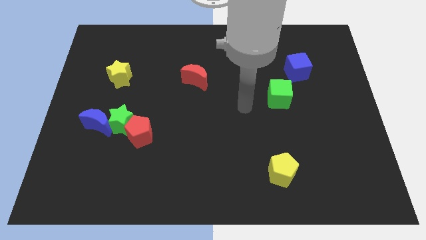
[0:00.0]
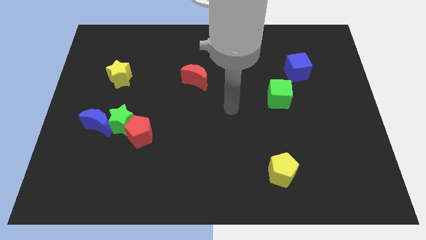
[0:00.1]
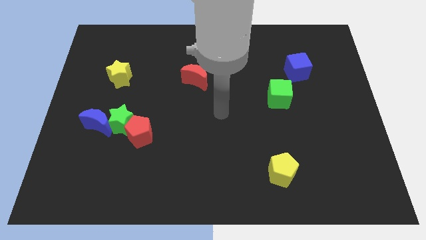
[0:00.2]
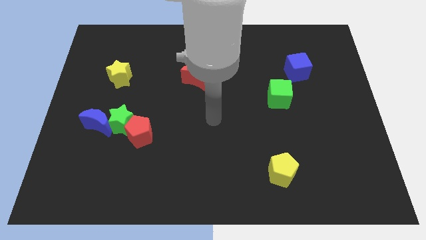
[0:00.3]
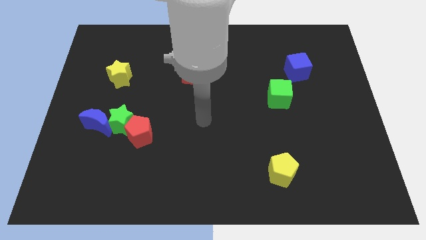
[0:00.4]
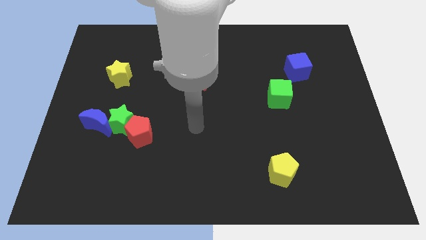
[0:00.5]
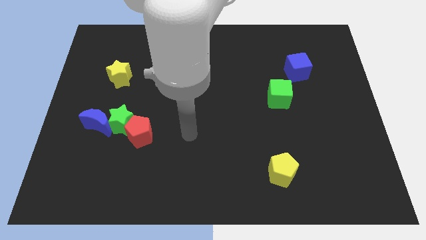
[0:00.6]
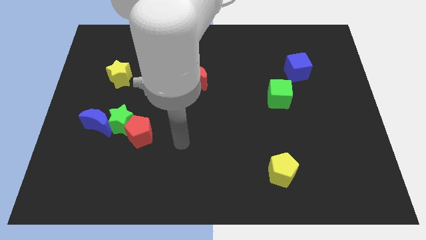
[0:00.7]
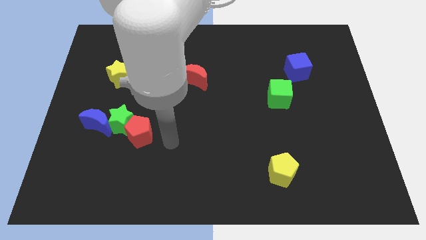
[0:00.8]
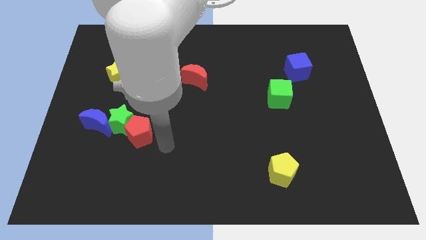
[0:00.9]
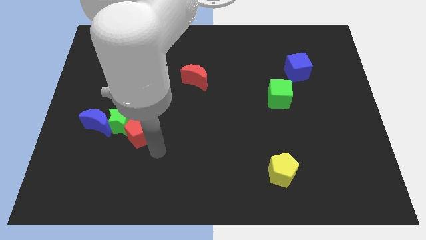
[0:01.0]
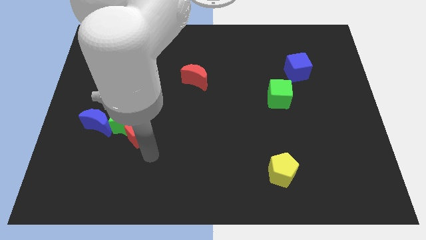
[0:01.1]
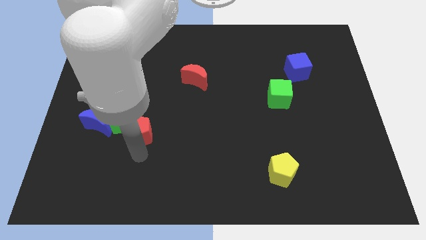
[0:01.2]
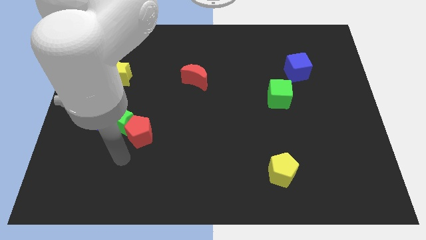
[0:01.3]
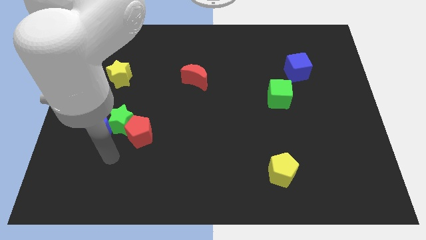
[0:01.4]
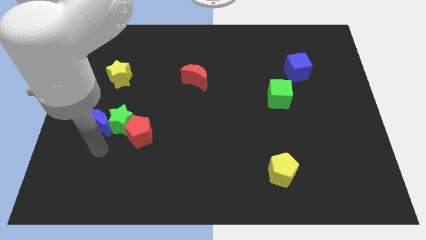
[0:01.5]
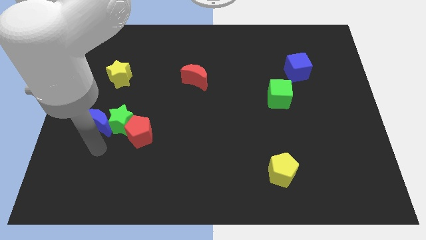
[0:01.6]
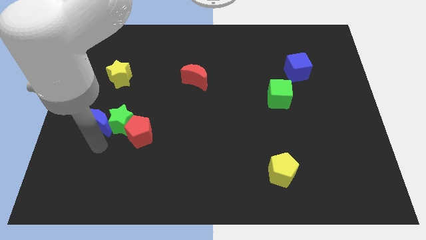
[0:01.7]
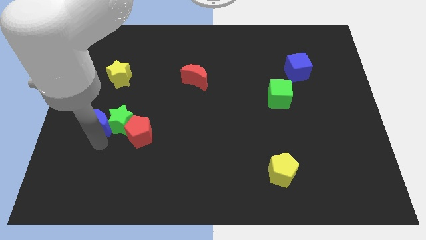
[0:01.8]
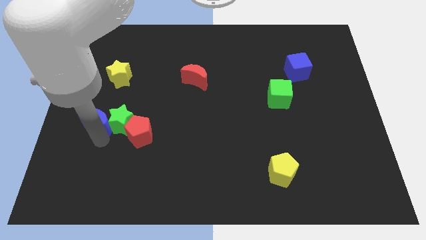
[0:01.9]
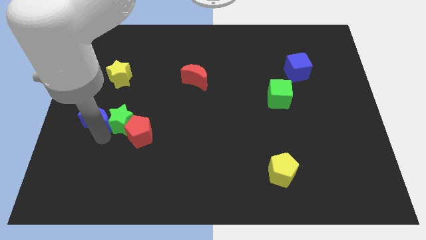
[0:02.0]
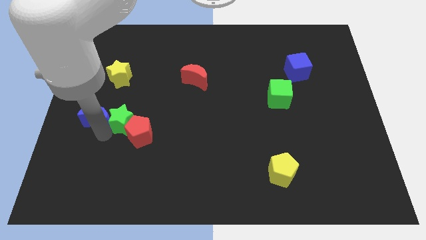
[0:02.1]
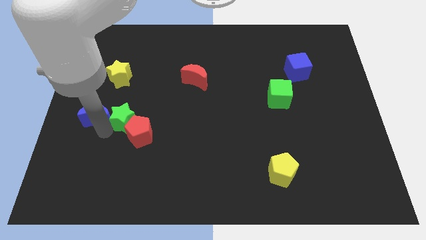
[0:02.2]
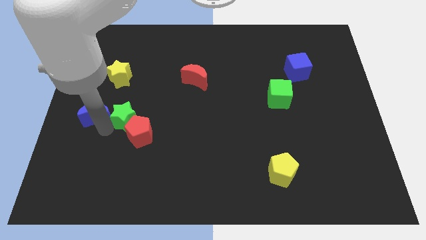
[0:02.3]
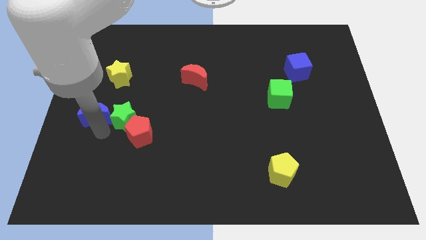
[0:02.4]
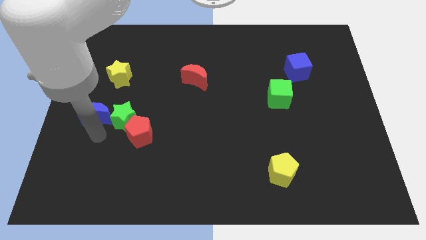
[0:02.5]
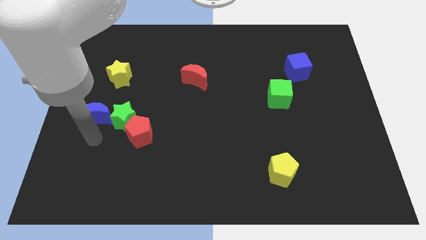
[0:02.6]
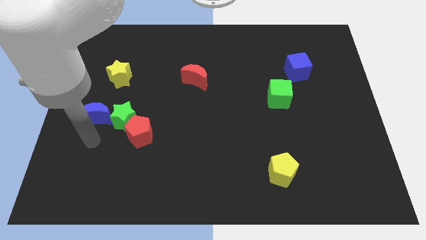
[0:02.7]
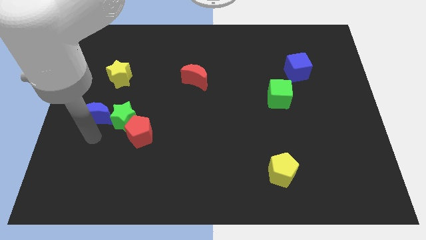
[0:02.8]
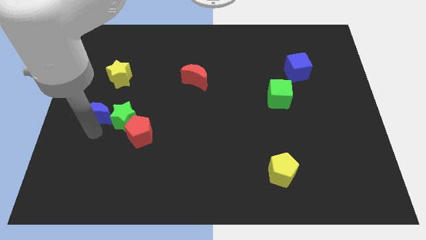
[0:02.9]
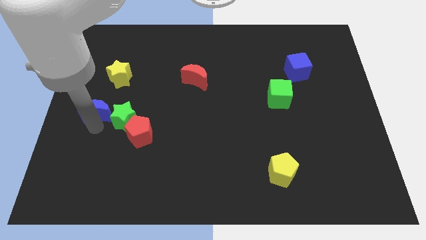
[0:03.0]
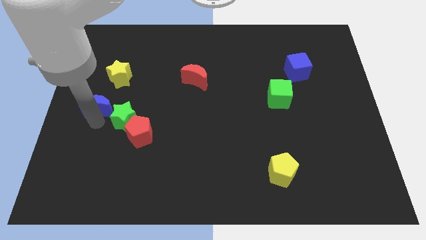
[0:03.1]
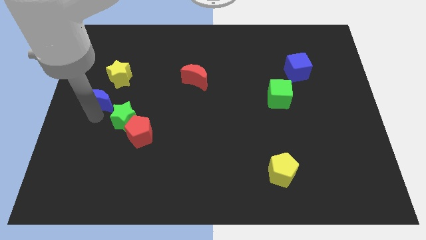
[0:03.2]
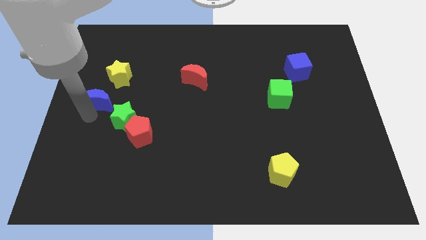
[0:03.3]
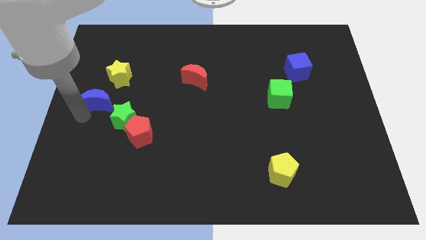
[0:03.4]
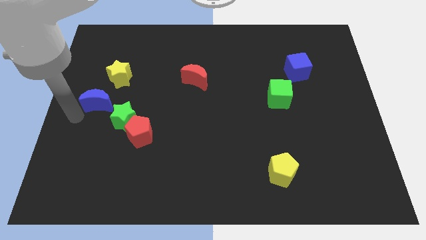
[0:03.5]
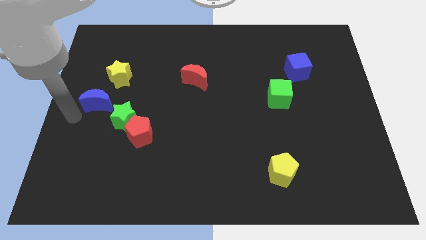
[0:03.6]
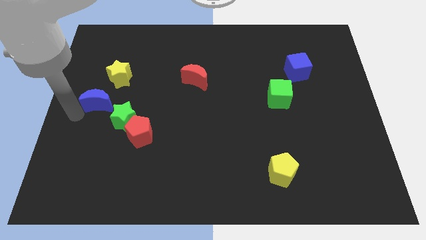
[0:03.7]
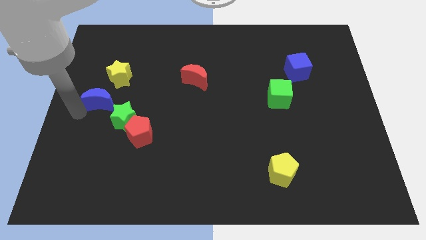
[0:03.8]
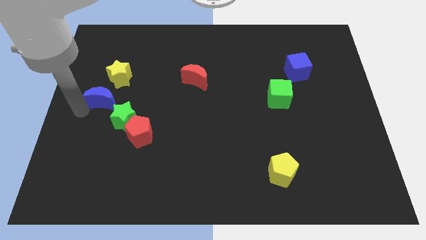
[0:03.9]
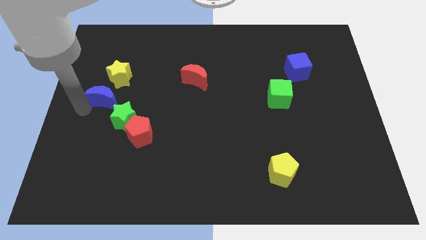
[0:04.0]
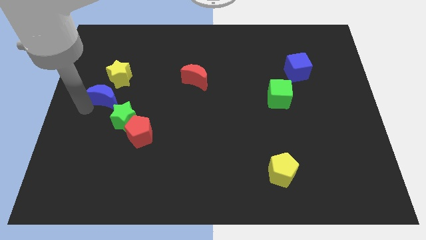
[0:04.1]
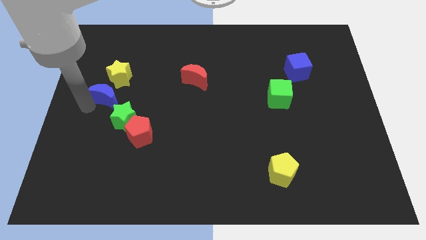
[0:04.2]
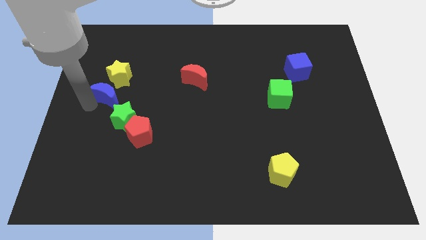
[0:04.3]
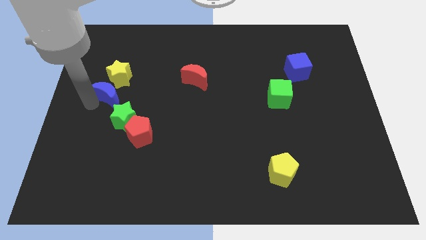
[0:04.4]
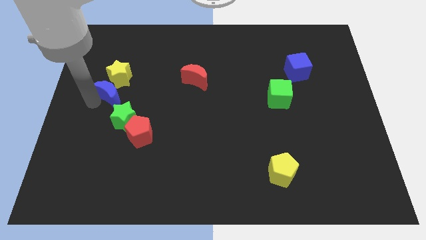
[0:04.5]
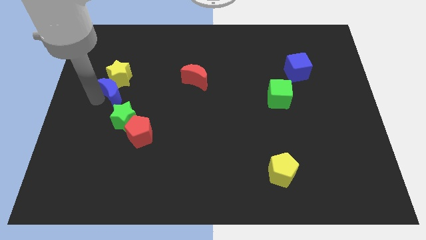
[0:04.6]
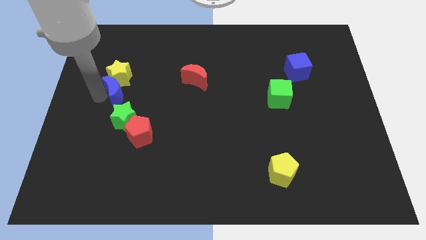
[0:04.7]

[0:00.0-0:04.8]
push the blue moon upwards and then right a little bit

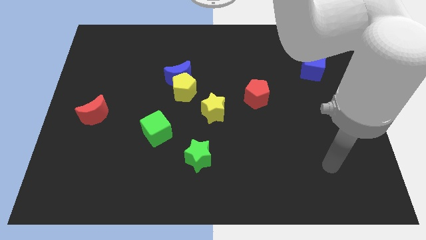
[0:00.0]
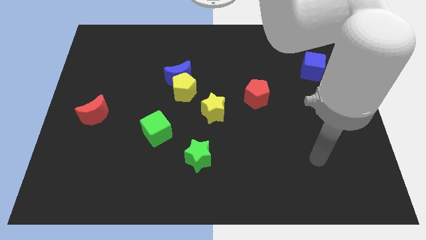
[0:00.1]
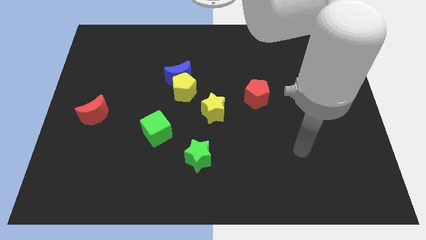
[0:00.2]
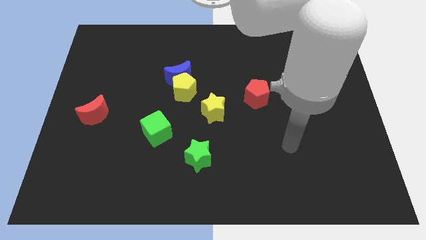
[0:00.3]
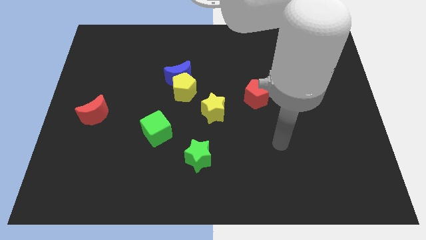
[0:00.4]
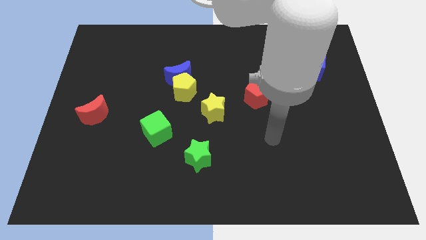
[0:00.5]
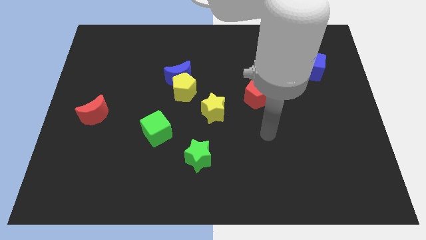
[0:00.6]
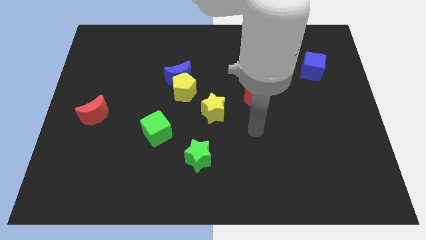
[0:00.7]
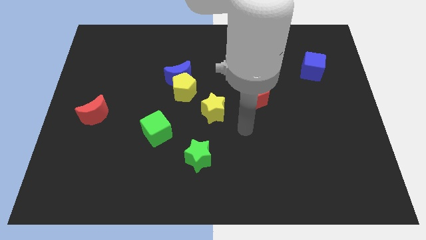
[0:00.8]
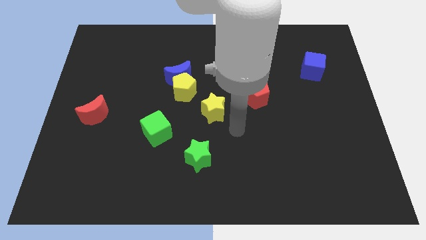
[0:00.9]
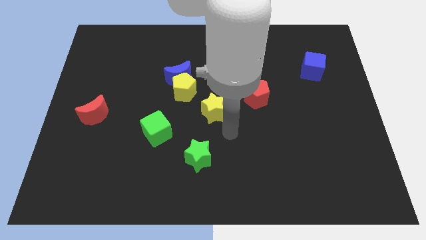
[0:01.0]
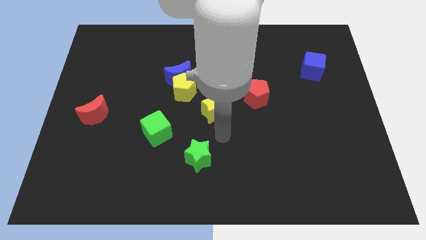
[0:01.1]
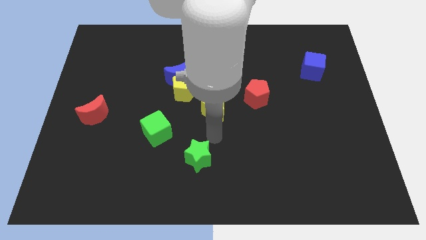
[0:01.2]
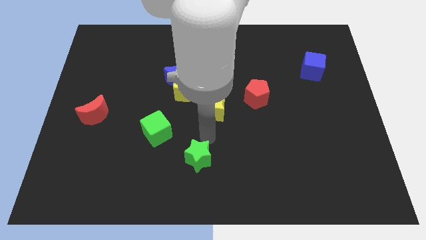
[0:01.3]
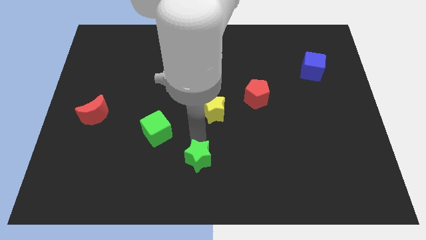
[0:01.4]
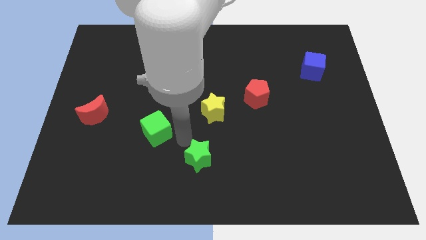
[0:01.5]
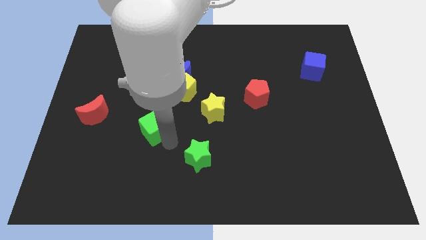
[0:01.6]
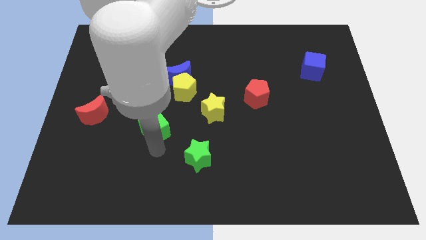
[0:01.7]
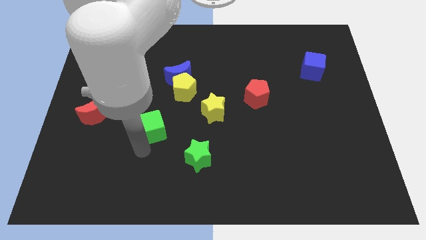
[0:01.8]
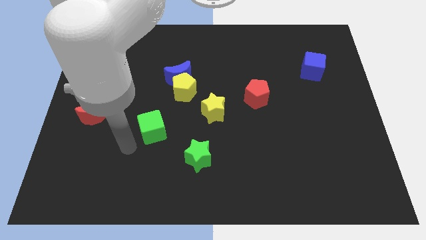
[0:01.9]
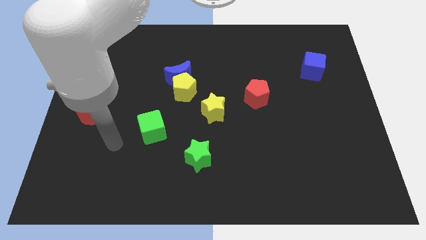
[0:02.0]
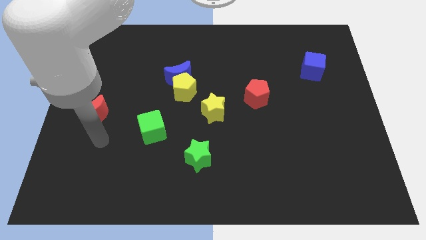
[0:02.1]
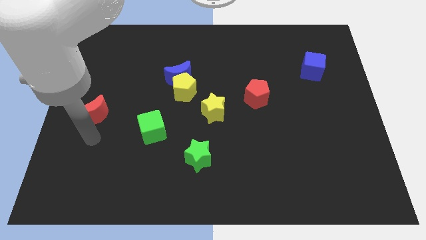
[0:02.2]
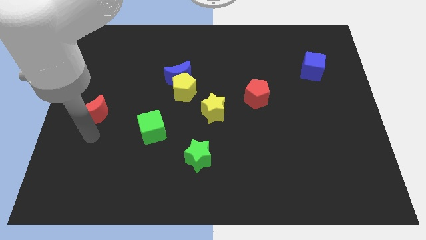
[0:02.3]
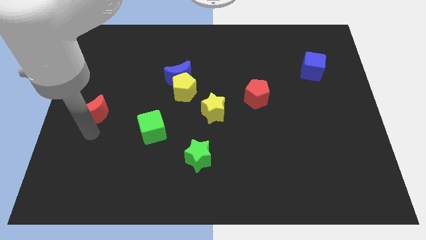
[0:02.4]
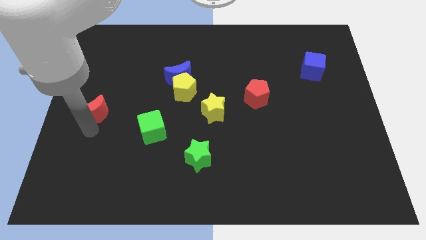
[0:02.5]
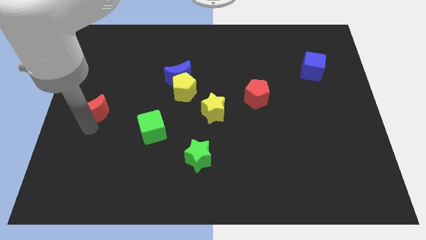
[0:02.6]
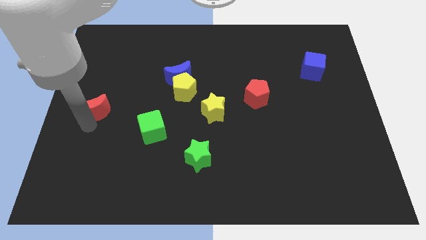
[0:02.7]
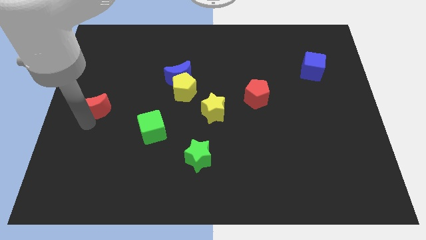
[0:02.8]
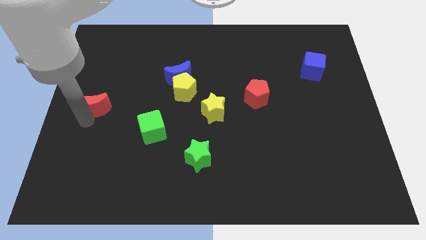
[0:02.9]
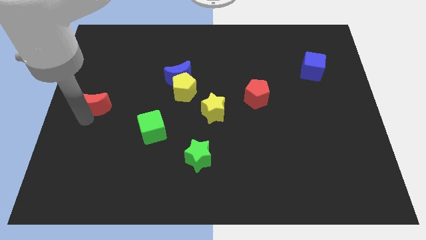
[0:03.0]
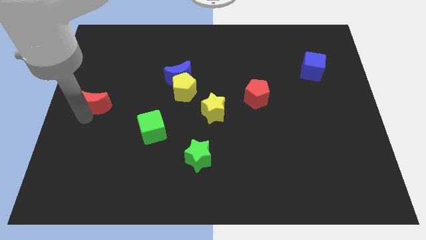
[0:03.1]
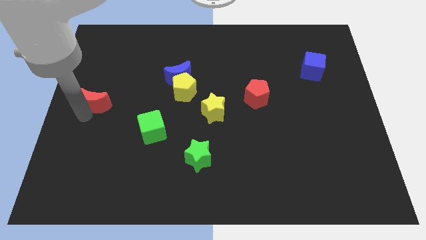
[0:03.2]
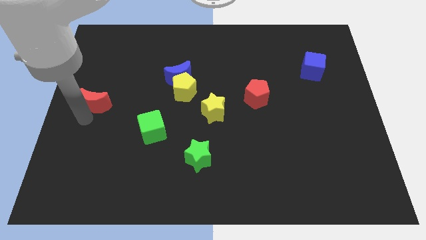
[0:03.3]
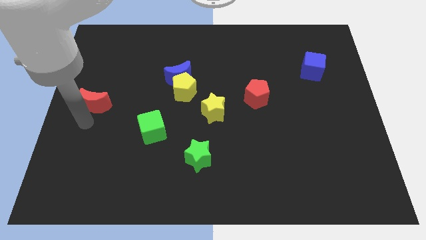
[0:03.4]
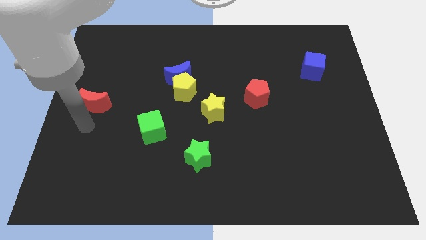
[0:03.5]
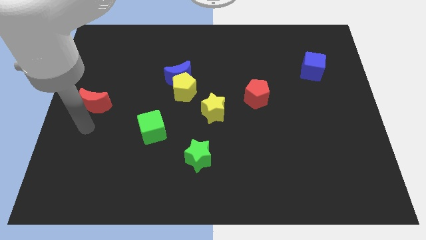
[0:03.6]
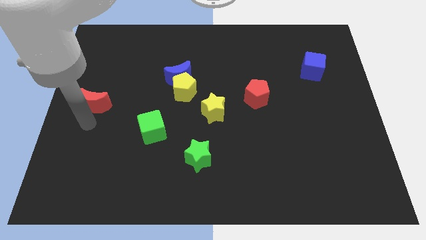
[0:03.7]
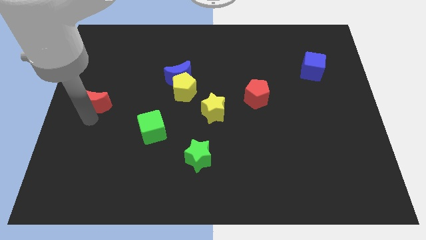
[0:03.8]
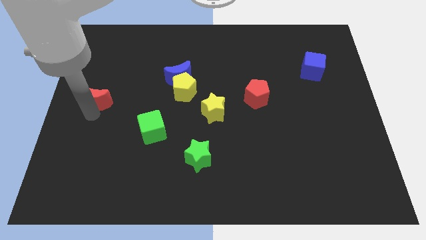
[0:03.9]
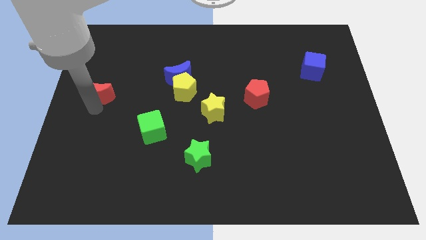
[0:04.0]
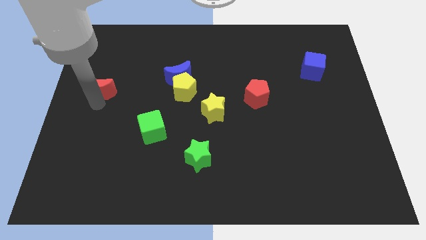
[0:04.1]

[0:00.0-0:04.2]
move the red moon upwards somewhat
